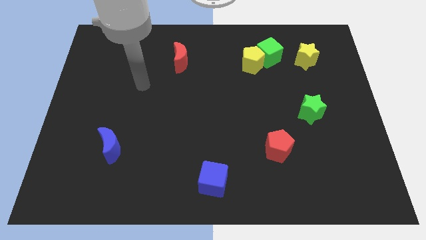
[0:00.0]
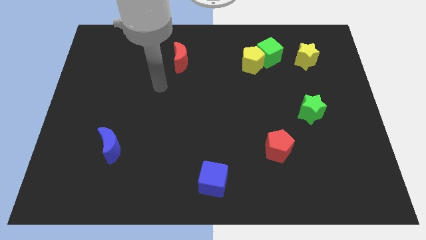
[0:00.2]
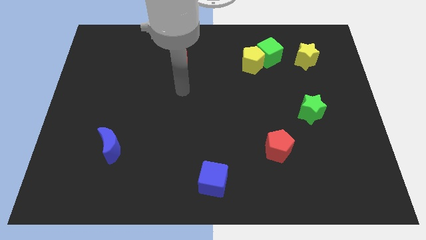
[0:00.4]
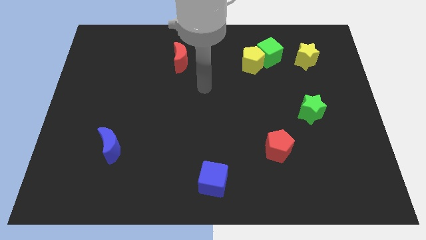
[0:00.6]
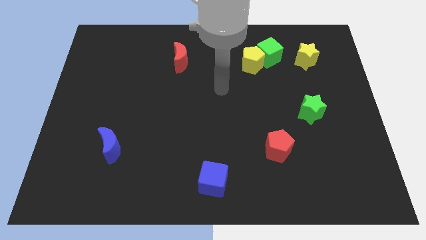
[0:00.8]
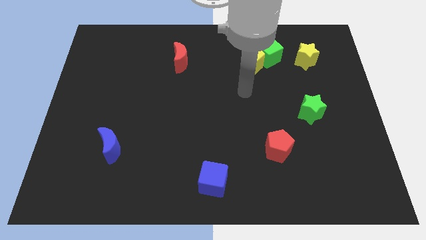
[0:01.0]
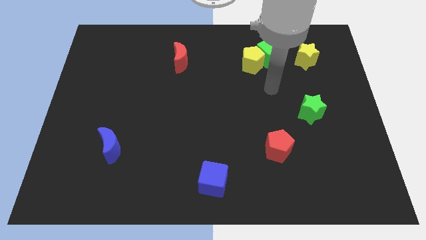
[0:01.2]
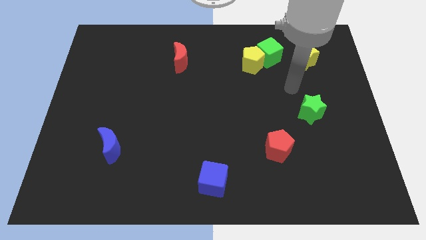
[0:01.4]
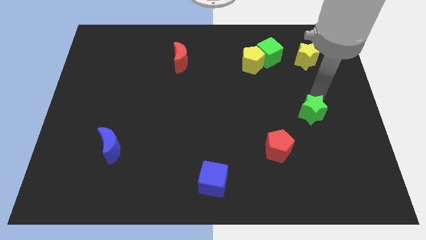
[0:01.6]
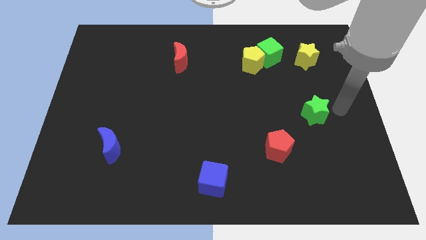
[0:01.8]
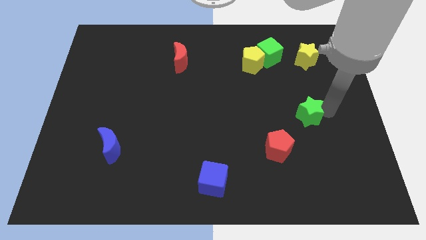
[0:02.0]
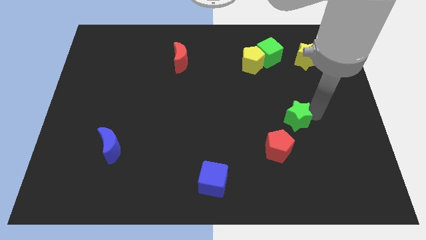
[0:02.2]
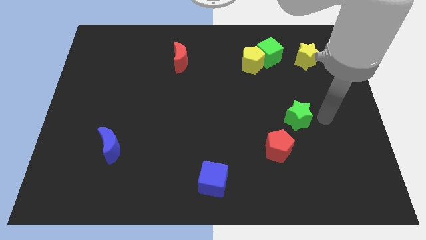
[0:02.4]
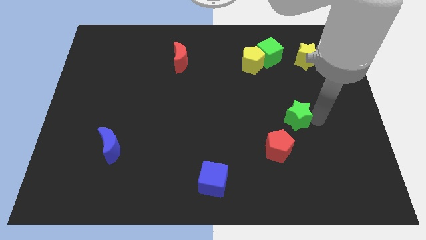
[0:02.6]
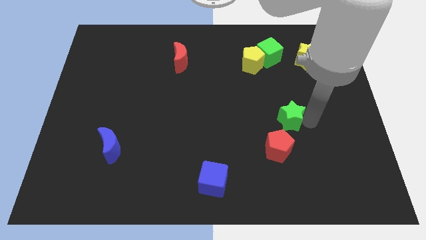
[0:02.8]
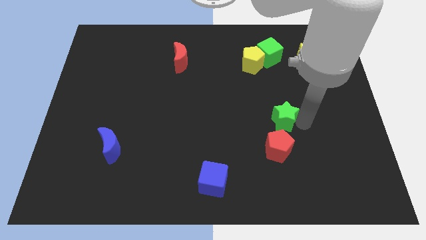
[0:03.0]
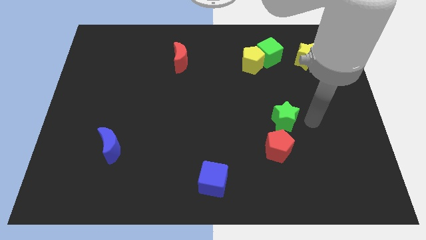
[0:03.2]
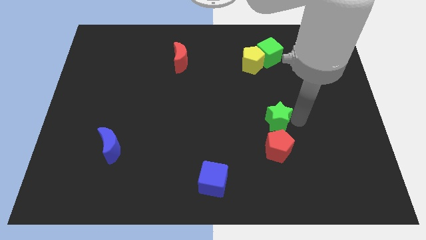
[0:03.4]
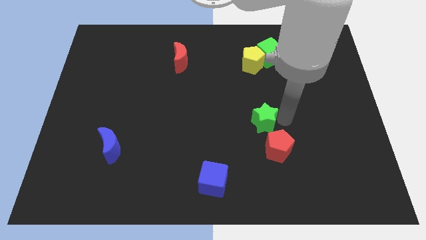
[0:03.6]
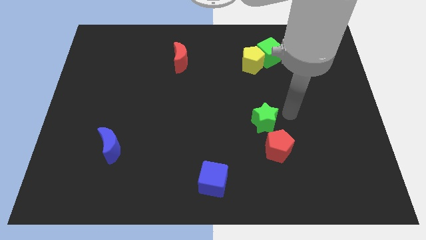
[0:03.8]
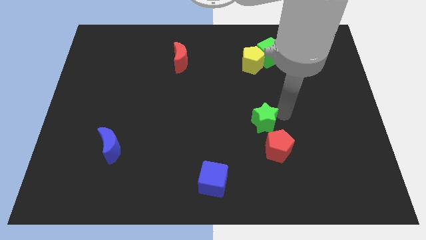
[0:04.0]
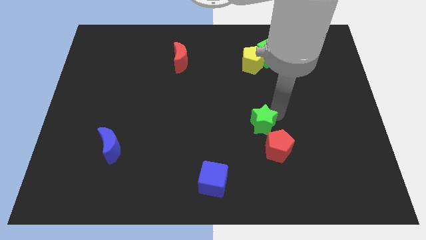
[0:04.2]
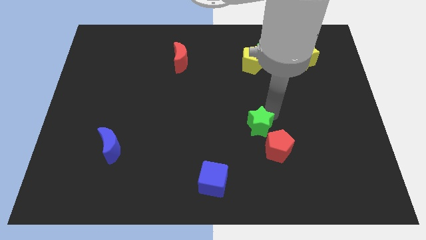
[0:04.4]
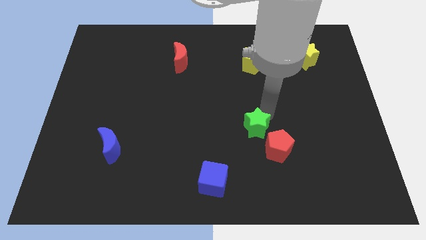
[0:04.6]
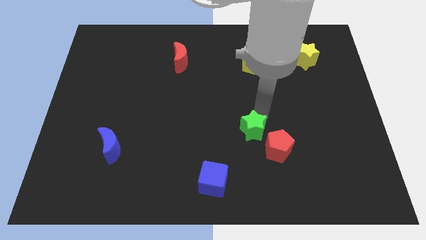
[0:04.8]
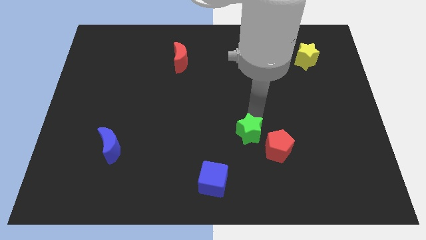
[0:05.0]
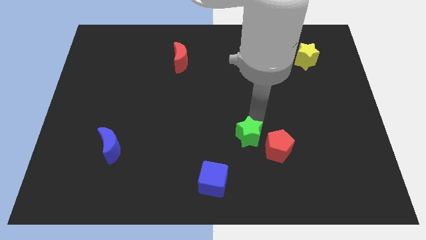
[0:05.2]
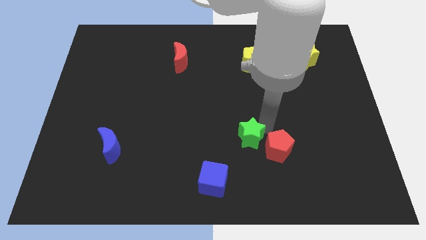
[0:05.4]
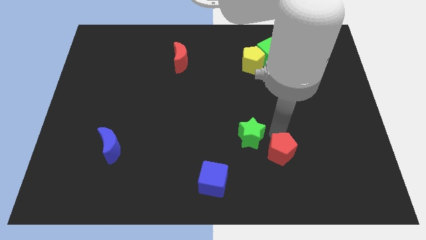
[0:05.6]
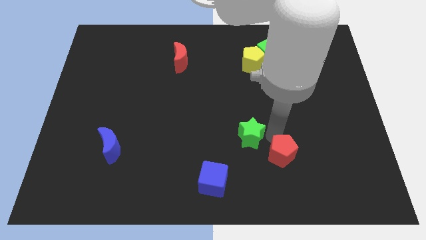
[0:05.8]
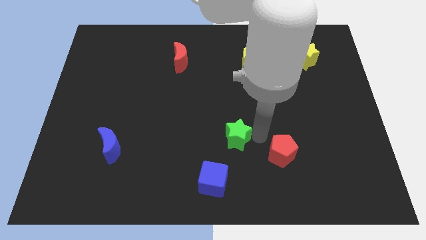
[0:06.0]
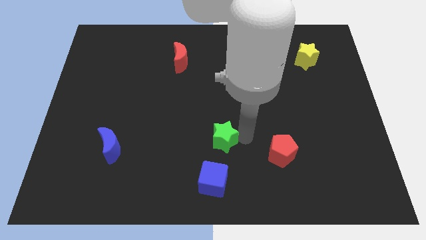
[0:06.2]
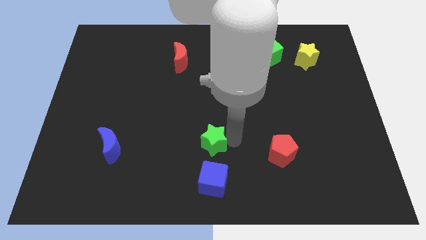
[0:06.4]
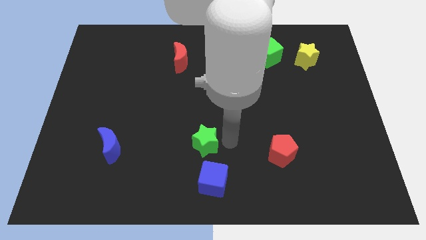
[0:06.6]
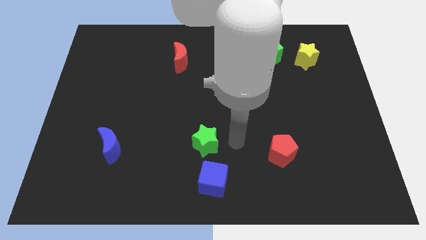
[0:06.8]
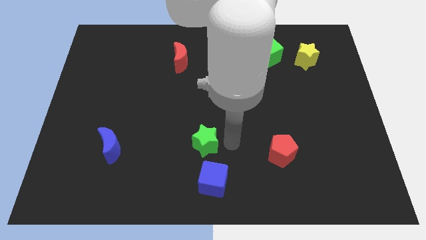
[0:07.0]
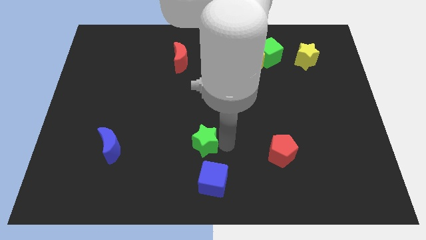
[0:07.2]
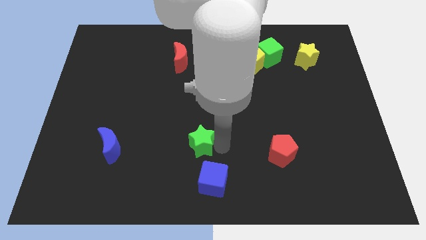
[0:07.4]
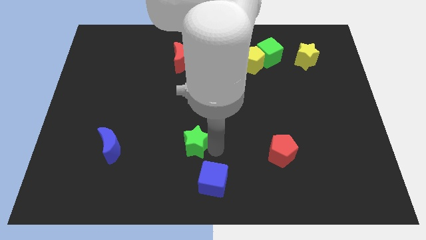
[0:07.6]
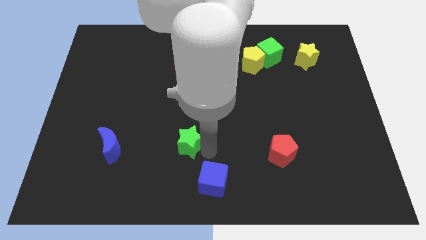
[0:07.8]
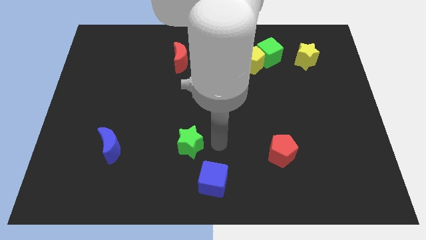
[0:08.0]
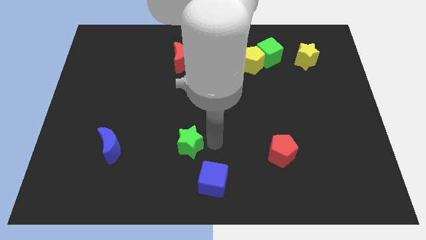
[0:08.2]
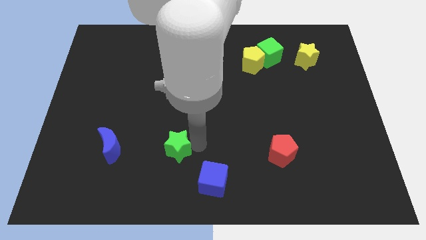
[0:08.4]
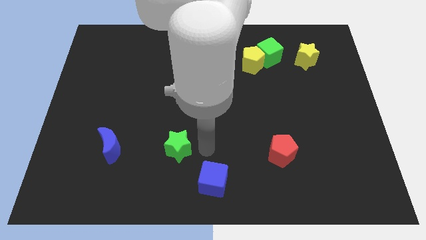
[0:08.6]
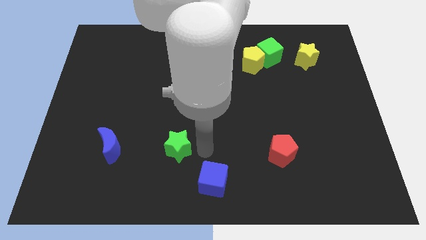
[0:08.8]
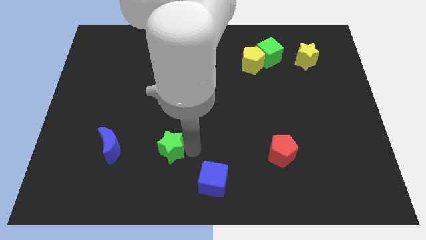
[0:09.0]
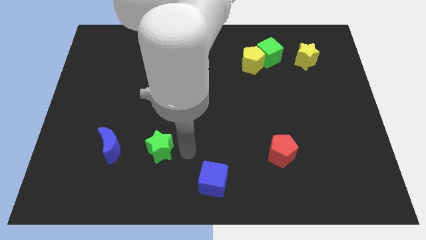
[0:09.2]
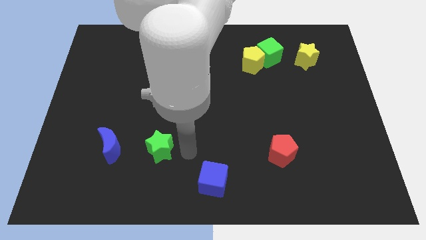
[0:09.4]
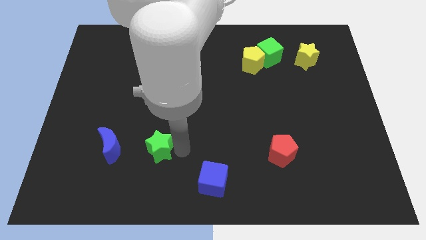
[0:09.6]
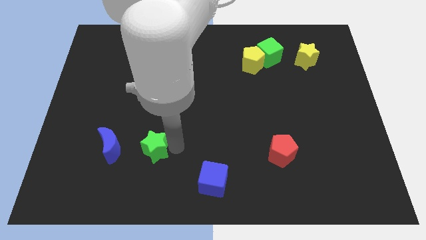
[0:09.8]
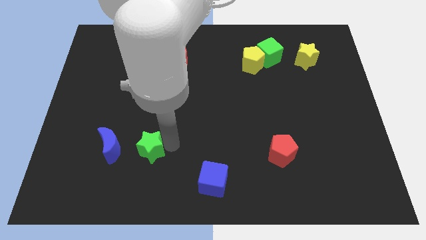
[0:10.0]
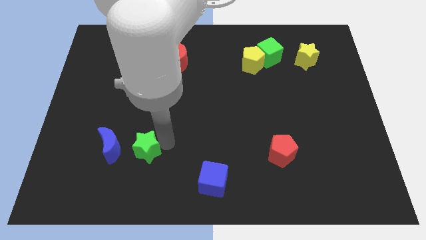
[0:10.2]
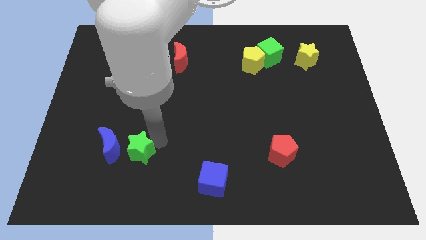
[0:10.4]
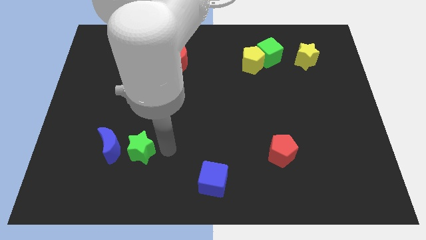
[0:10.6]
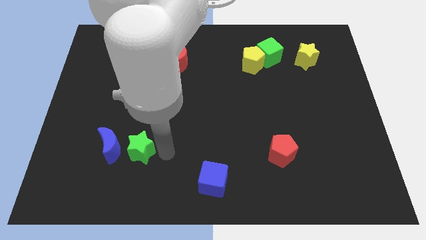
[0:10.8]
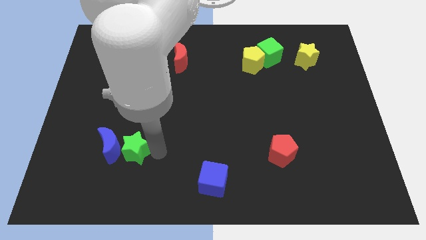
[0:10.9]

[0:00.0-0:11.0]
push the green star next to the blue moon

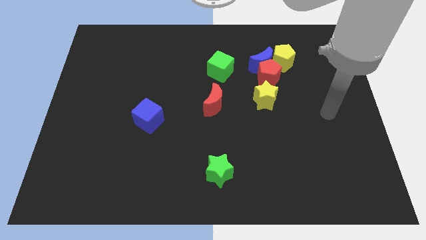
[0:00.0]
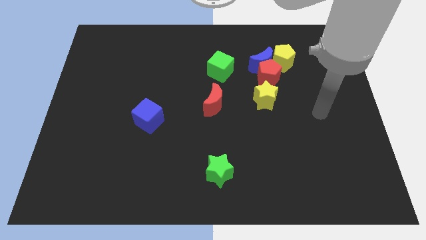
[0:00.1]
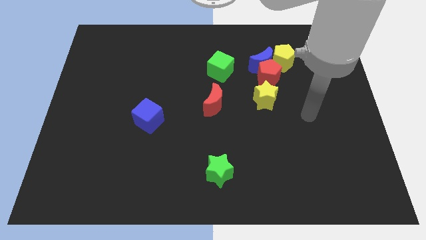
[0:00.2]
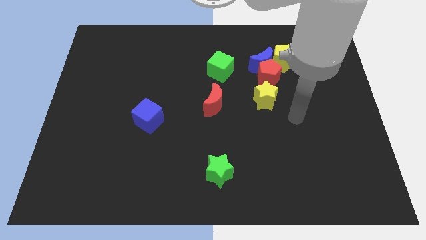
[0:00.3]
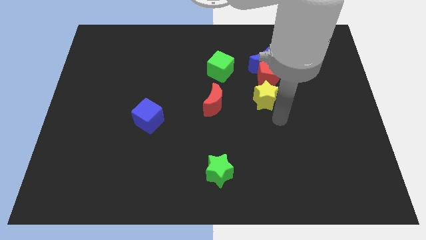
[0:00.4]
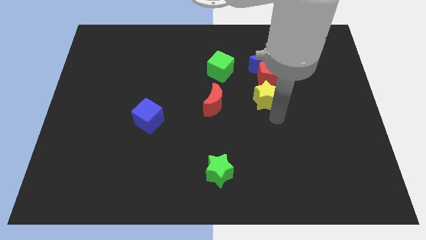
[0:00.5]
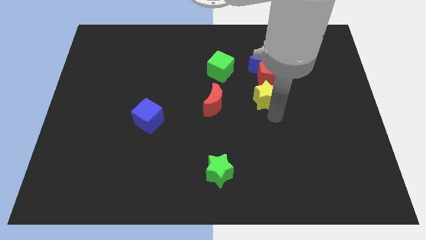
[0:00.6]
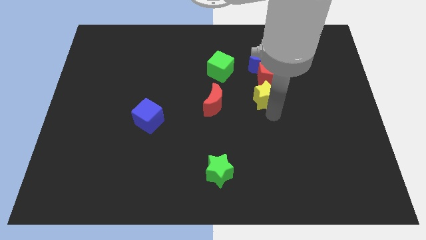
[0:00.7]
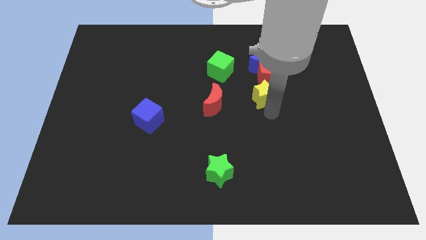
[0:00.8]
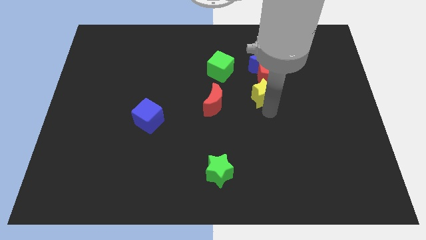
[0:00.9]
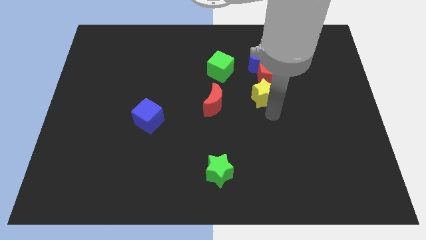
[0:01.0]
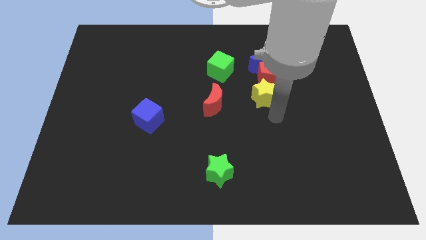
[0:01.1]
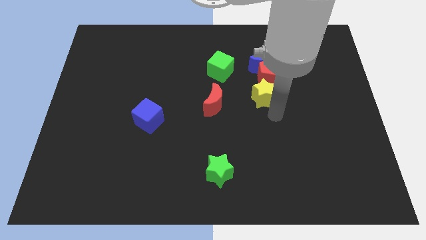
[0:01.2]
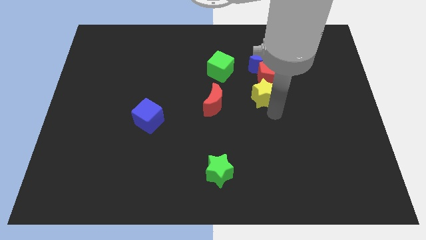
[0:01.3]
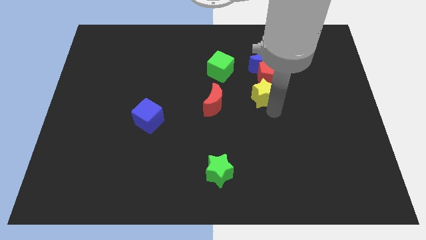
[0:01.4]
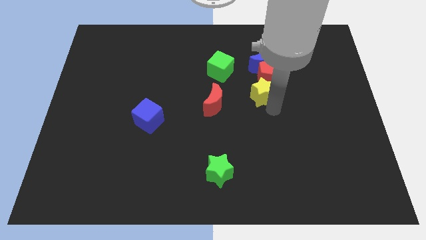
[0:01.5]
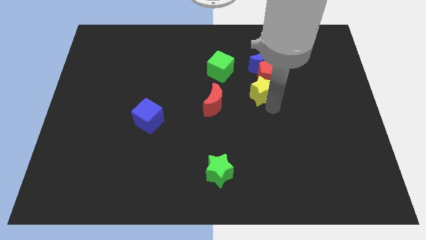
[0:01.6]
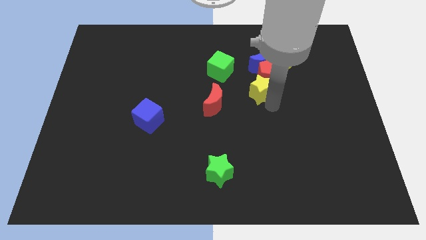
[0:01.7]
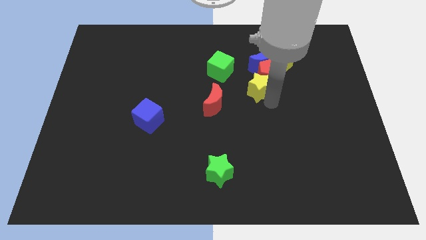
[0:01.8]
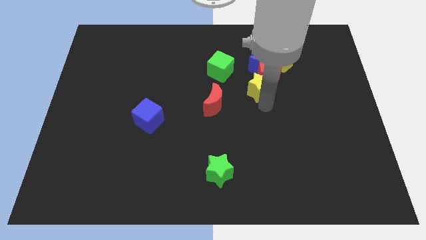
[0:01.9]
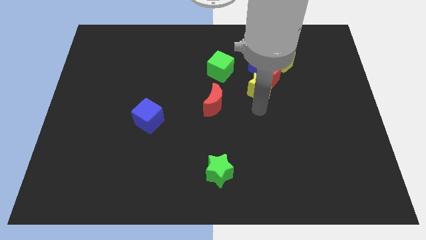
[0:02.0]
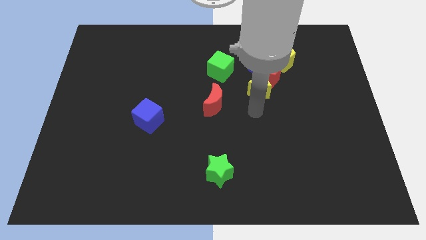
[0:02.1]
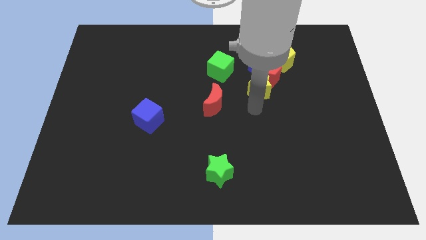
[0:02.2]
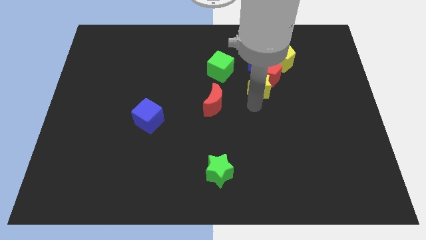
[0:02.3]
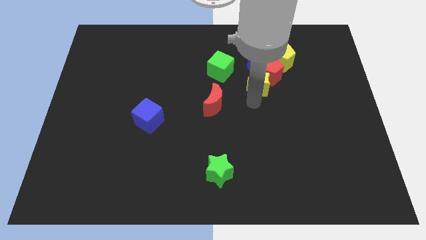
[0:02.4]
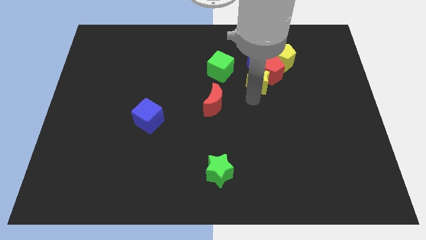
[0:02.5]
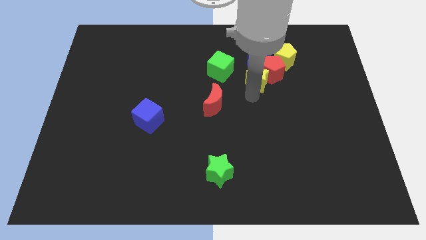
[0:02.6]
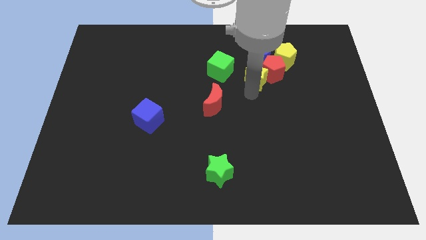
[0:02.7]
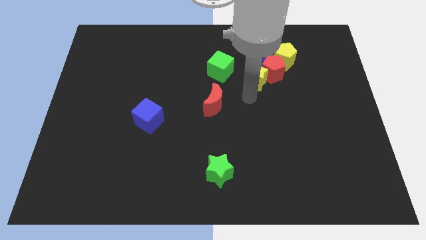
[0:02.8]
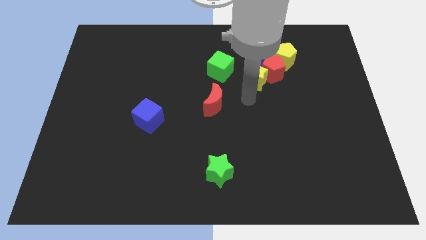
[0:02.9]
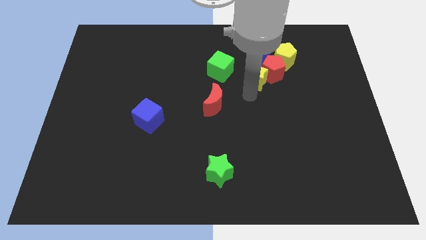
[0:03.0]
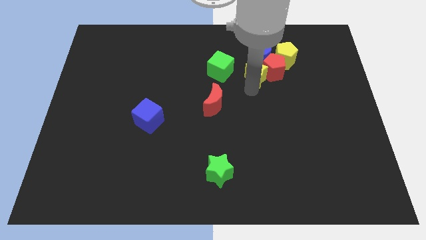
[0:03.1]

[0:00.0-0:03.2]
move the yellow star next to the blue moon
